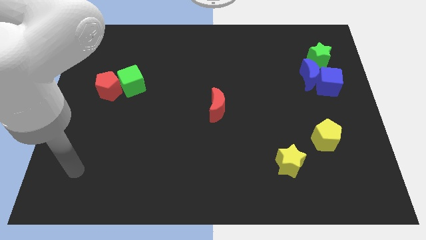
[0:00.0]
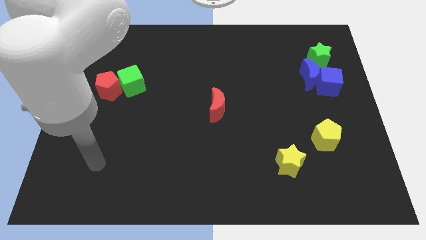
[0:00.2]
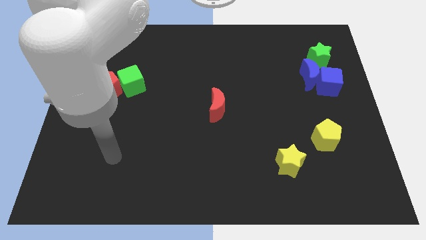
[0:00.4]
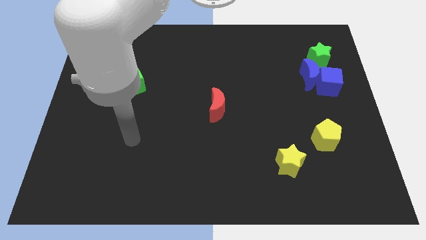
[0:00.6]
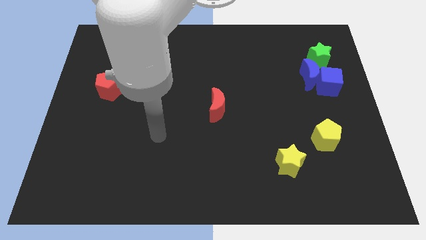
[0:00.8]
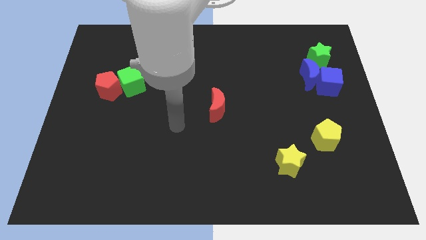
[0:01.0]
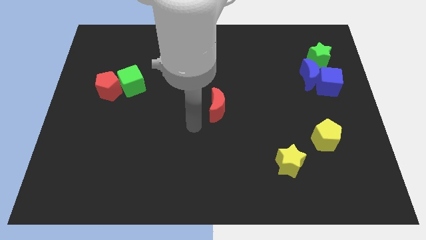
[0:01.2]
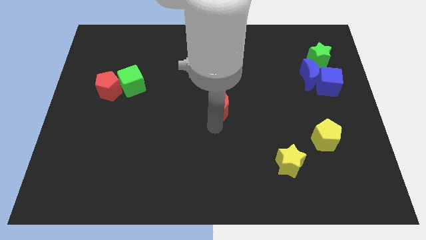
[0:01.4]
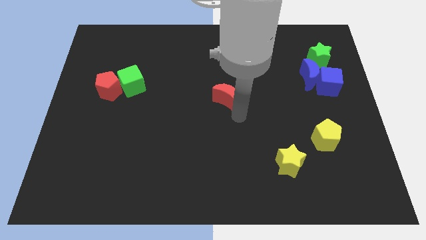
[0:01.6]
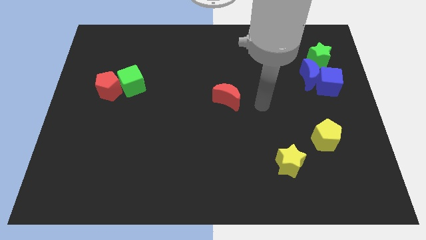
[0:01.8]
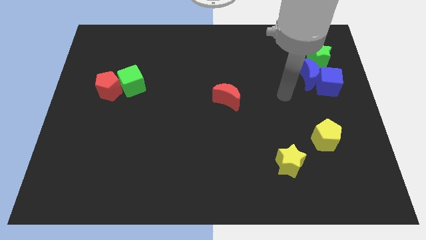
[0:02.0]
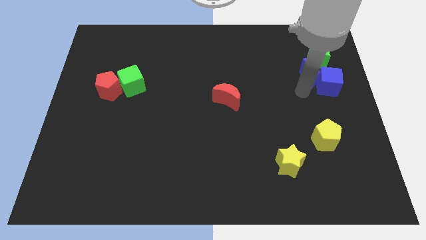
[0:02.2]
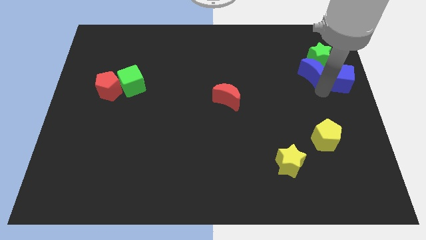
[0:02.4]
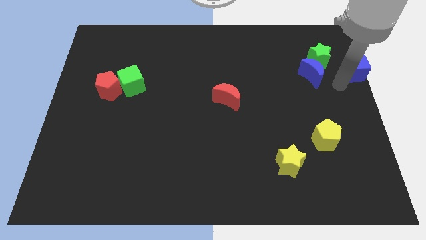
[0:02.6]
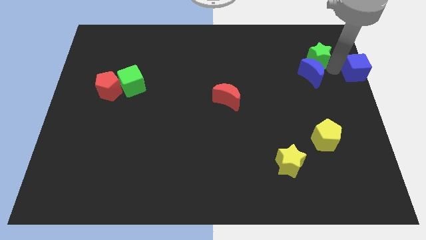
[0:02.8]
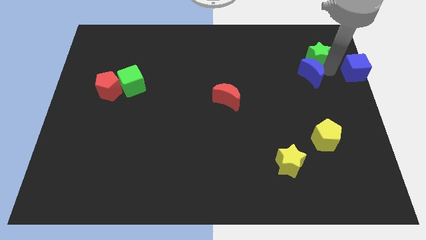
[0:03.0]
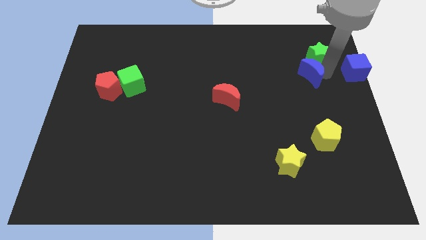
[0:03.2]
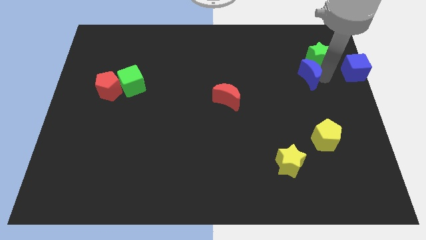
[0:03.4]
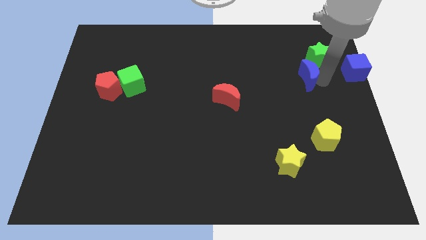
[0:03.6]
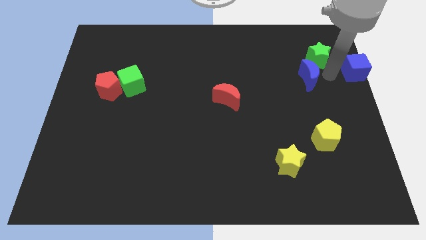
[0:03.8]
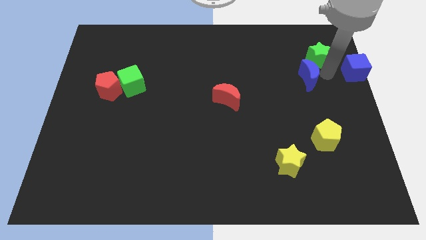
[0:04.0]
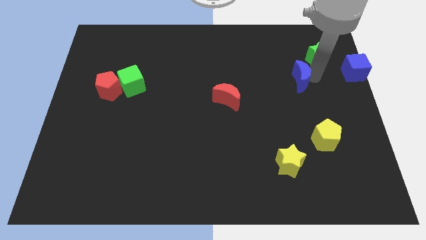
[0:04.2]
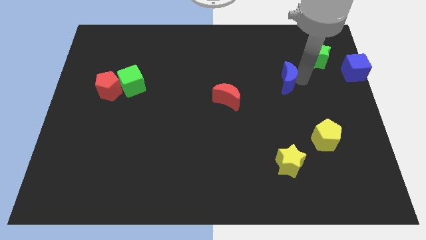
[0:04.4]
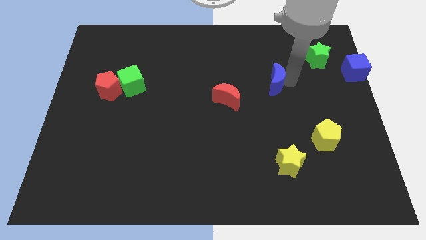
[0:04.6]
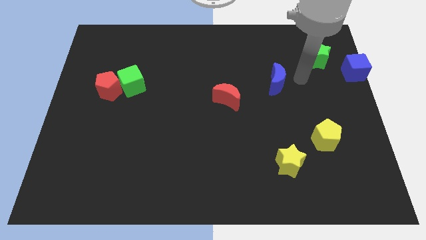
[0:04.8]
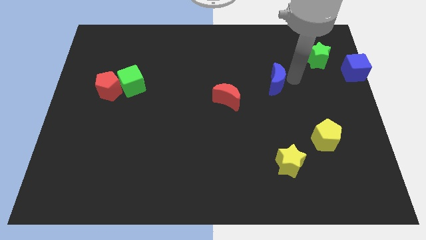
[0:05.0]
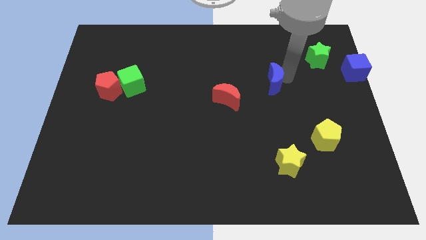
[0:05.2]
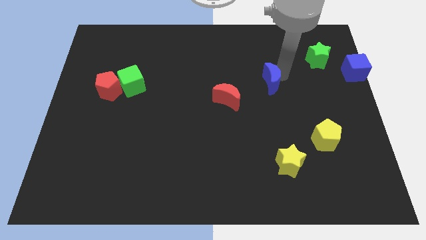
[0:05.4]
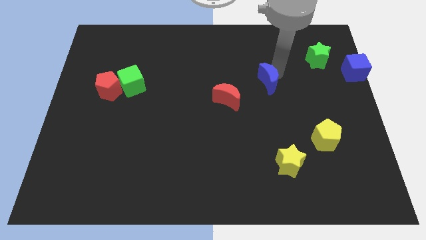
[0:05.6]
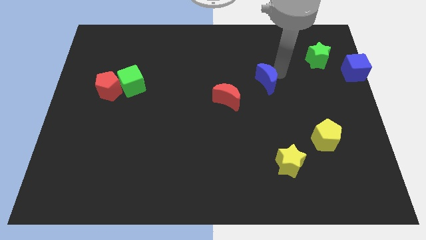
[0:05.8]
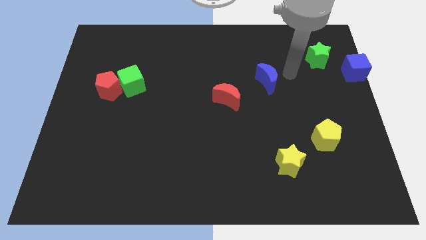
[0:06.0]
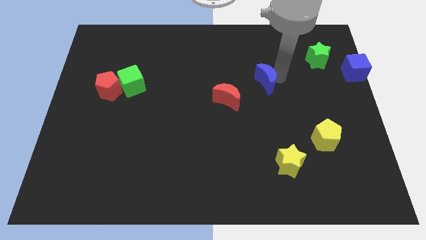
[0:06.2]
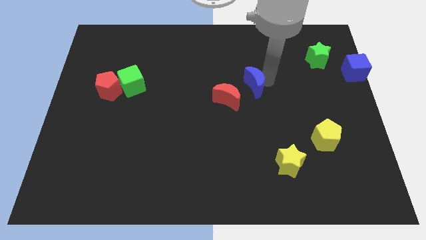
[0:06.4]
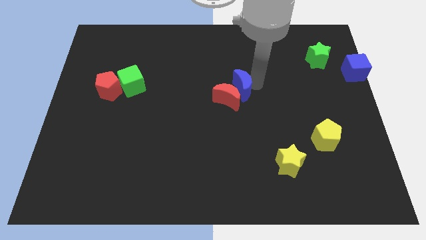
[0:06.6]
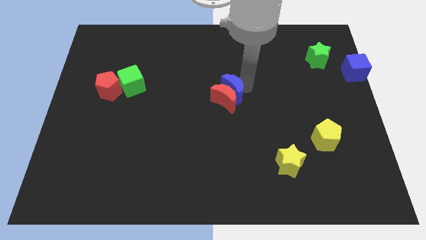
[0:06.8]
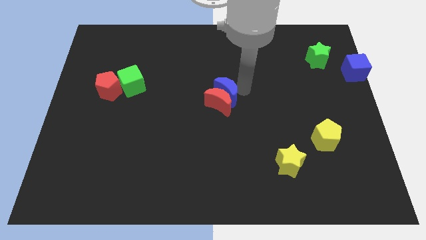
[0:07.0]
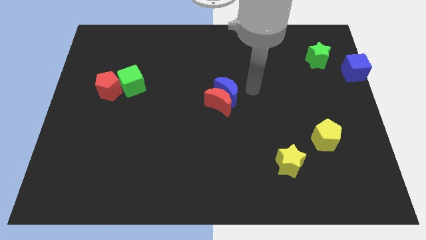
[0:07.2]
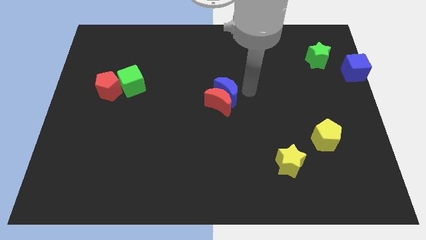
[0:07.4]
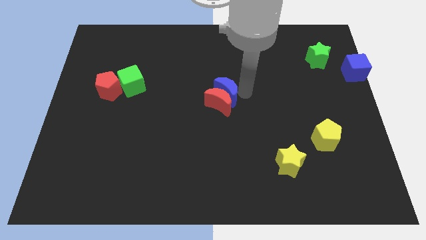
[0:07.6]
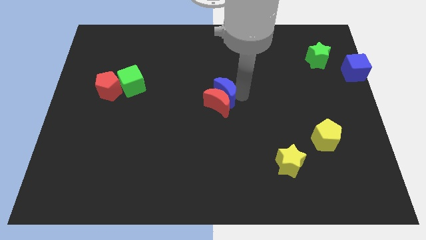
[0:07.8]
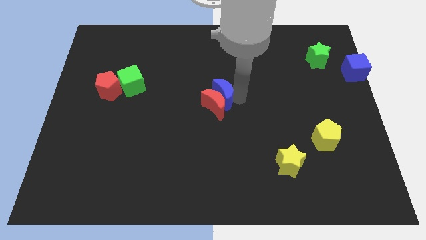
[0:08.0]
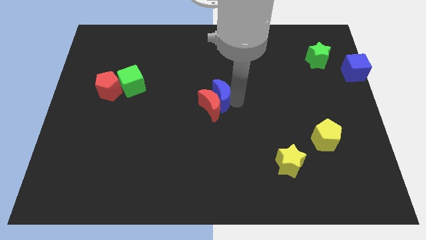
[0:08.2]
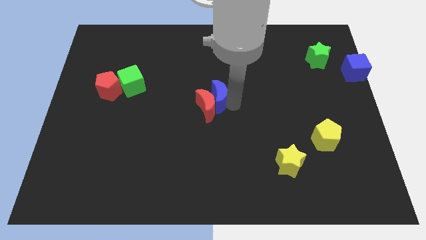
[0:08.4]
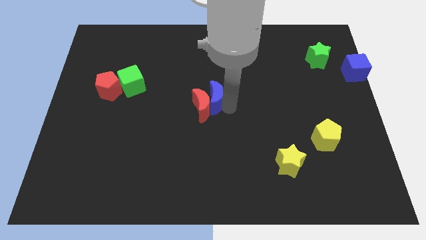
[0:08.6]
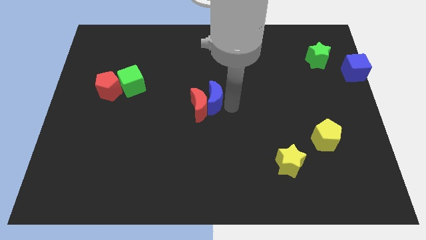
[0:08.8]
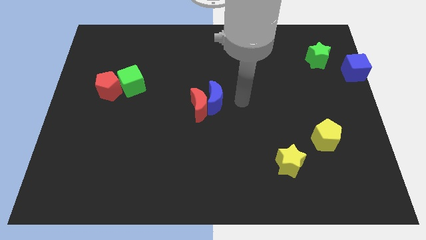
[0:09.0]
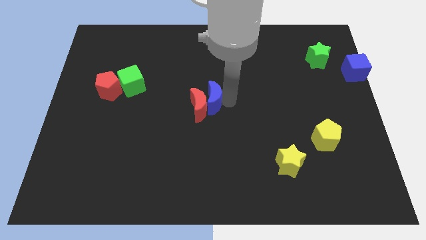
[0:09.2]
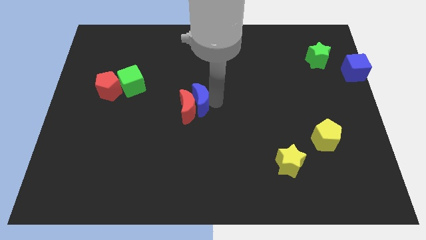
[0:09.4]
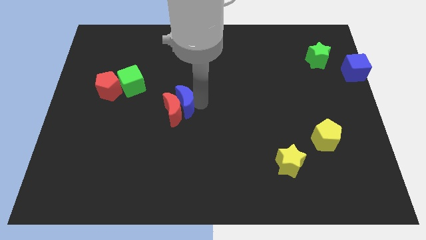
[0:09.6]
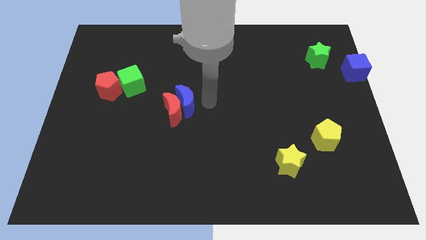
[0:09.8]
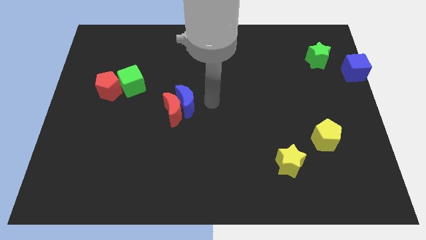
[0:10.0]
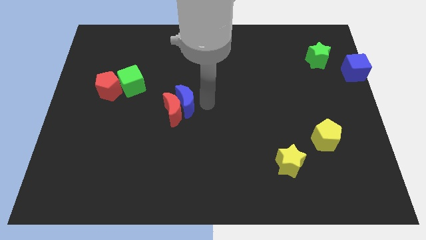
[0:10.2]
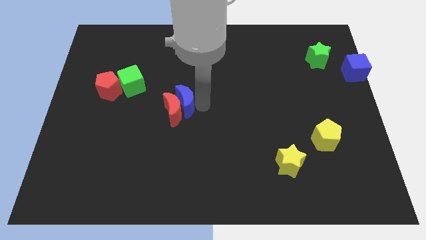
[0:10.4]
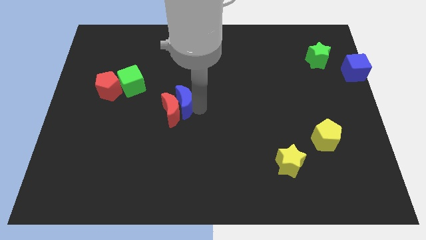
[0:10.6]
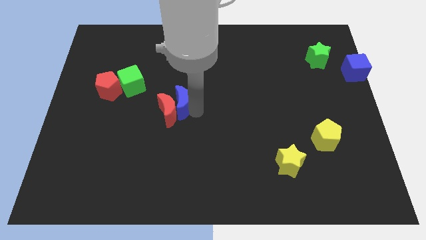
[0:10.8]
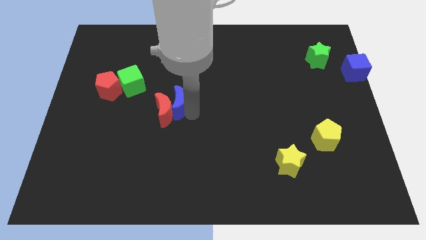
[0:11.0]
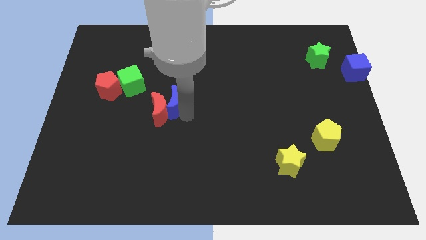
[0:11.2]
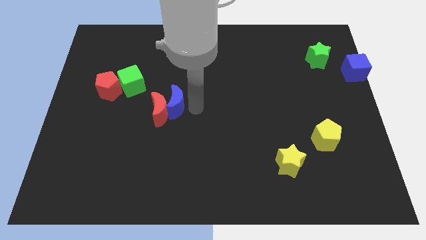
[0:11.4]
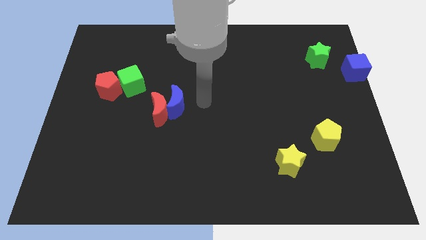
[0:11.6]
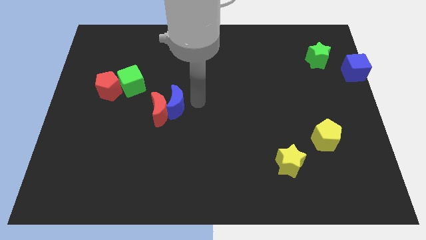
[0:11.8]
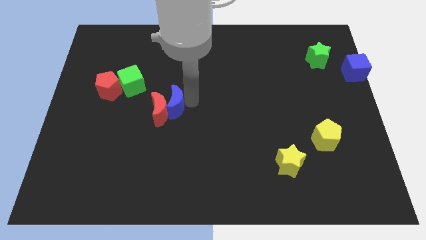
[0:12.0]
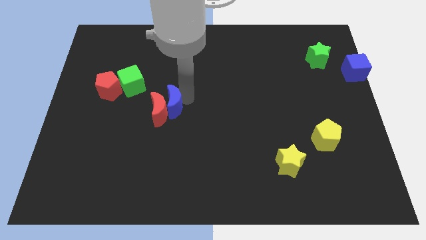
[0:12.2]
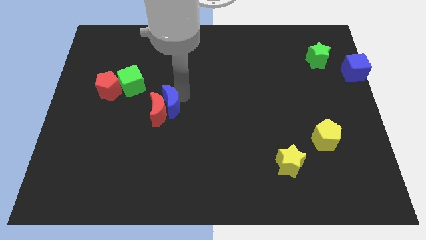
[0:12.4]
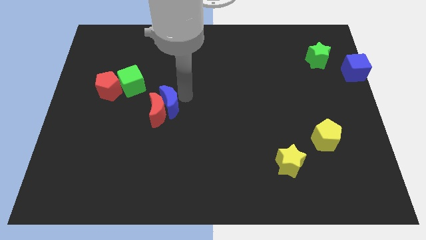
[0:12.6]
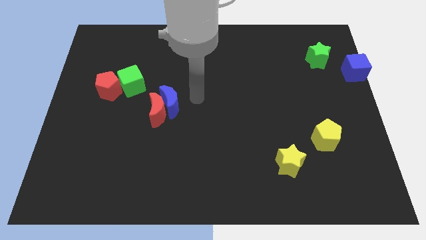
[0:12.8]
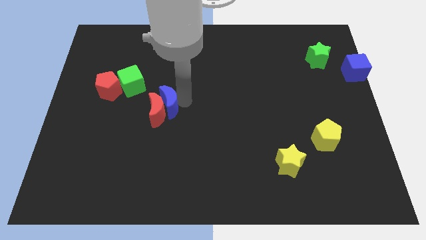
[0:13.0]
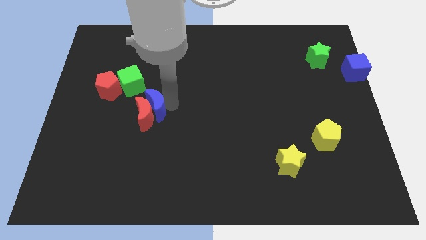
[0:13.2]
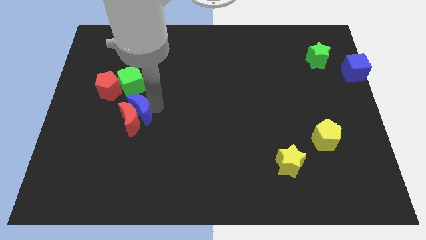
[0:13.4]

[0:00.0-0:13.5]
slide the blue moon below the green cube

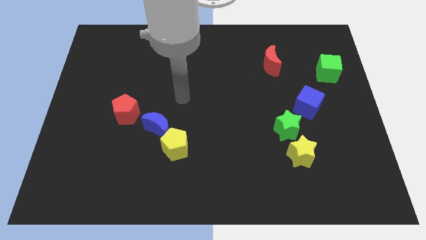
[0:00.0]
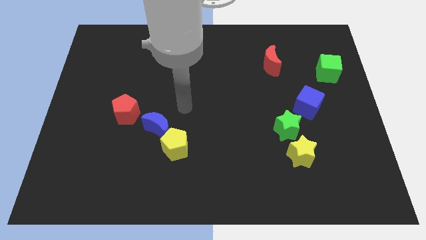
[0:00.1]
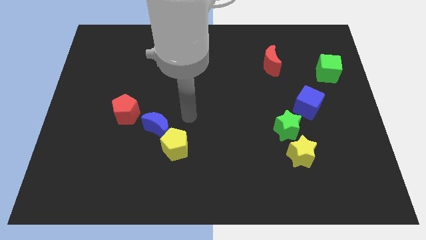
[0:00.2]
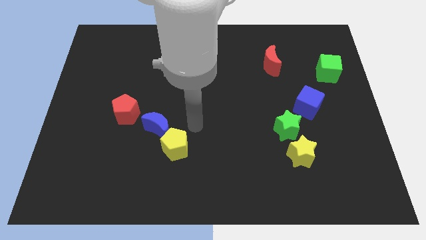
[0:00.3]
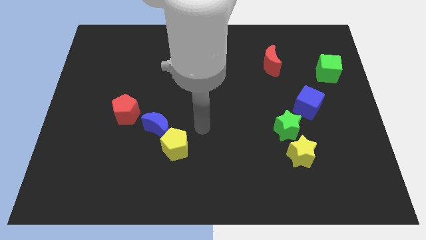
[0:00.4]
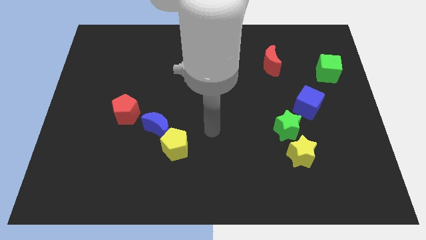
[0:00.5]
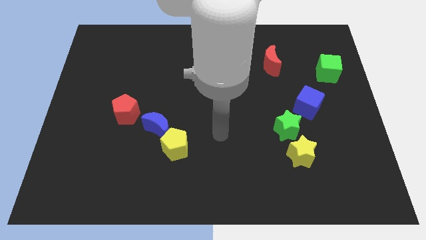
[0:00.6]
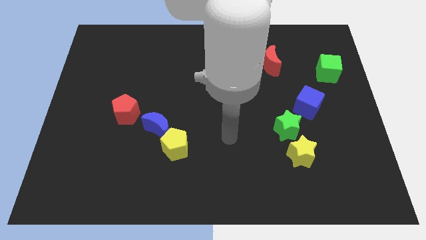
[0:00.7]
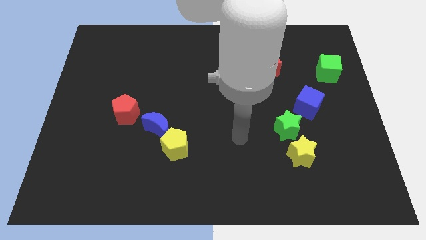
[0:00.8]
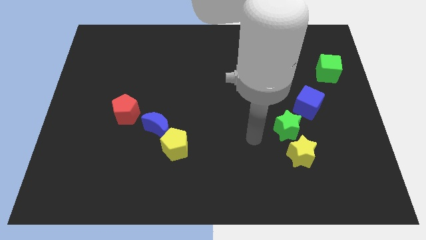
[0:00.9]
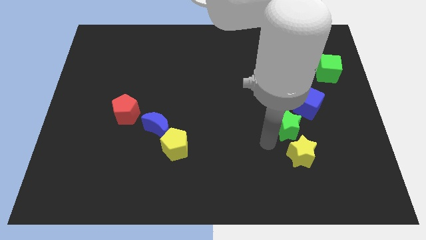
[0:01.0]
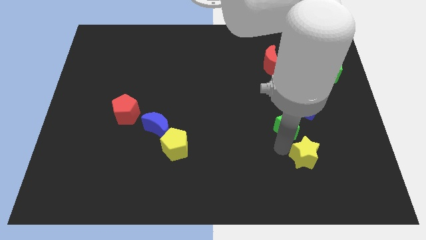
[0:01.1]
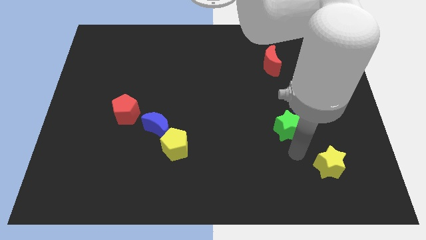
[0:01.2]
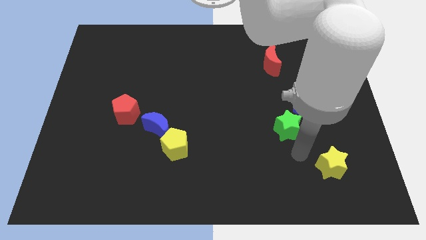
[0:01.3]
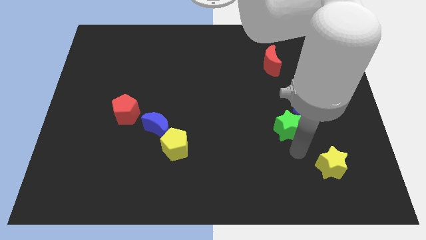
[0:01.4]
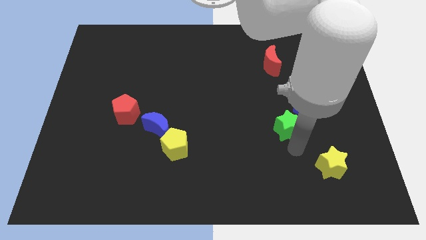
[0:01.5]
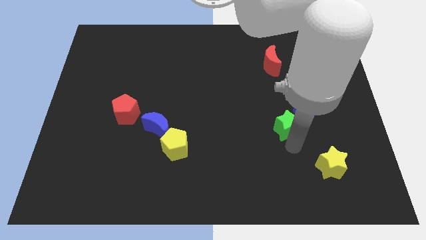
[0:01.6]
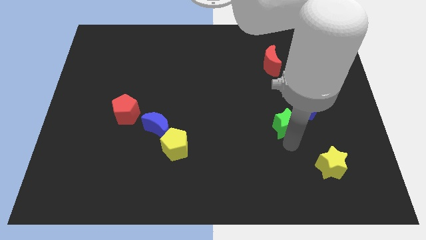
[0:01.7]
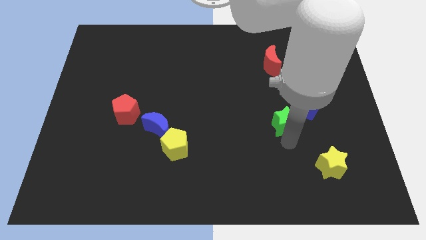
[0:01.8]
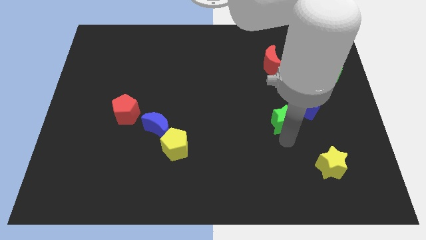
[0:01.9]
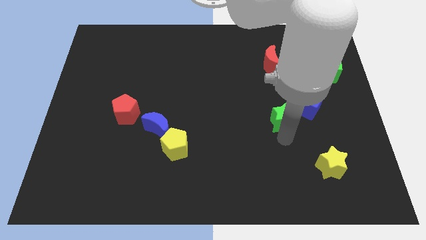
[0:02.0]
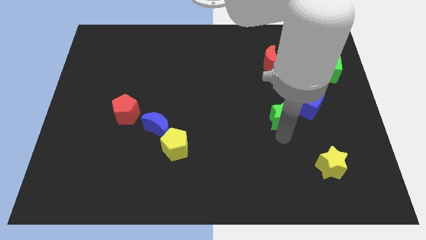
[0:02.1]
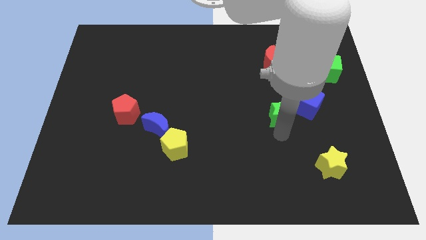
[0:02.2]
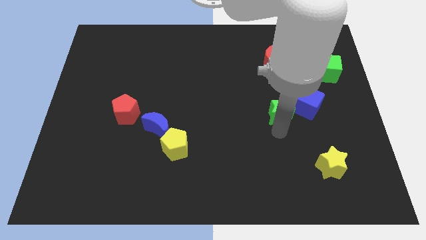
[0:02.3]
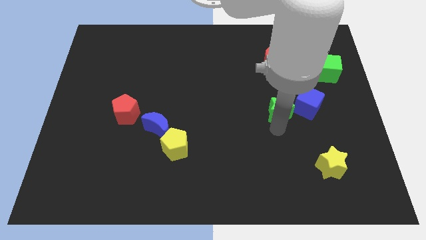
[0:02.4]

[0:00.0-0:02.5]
move the green star to the bottom of the red moon
